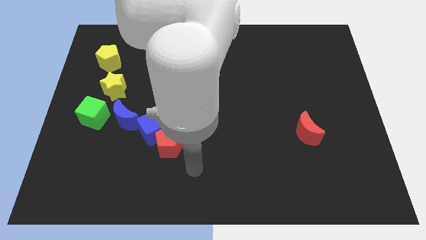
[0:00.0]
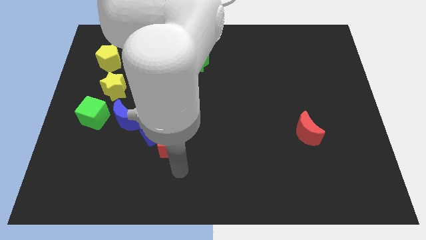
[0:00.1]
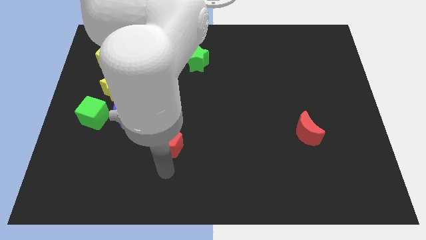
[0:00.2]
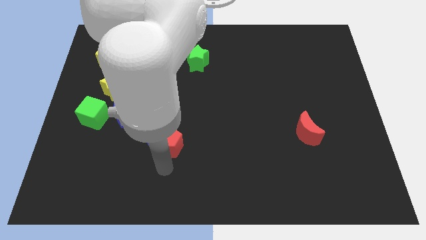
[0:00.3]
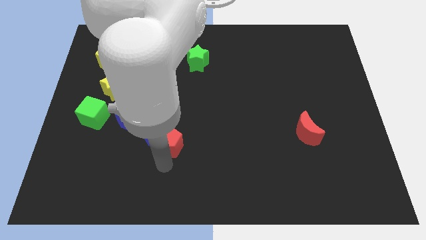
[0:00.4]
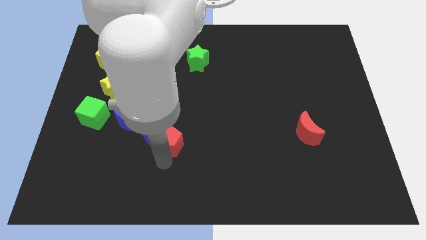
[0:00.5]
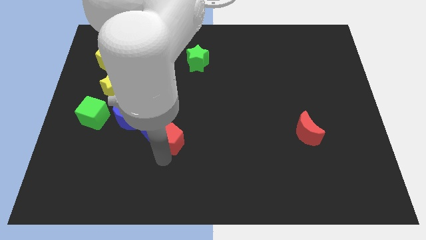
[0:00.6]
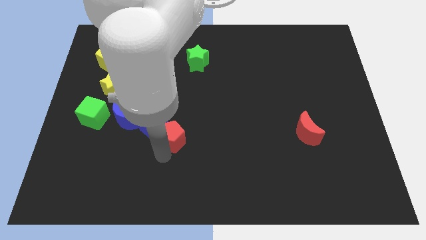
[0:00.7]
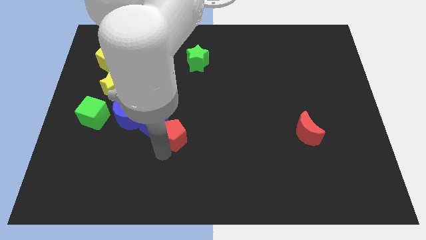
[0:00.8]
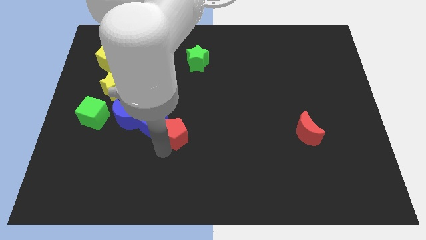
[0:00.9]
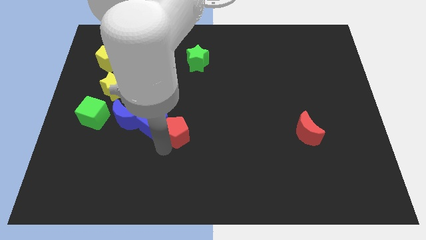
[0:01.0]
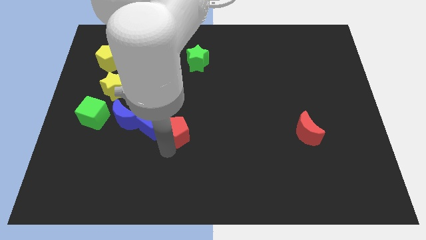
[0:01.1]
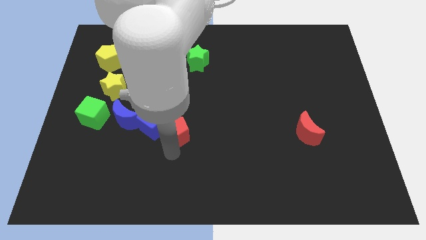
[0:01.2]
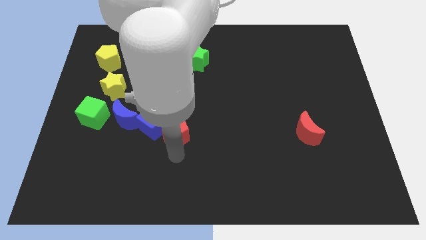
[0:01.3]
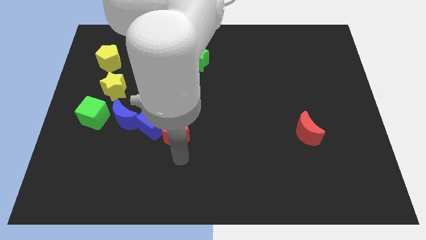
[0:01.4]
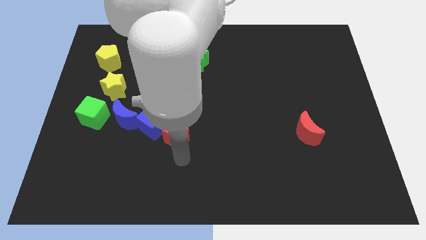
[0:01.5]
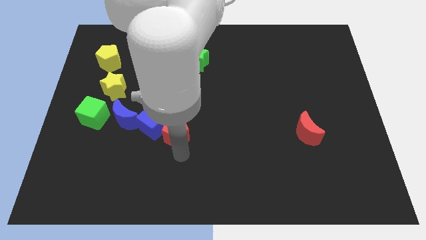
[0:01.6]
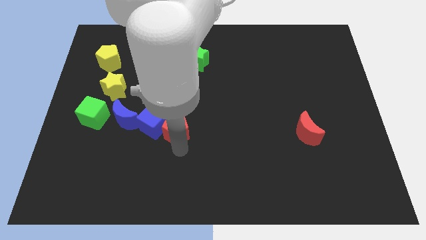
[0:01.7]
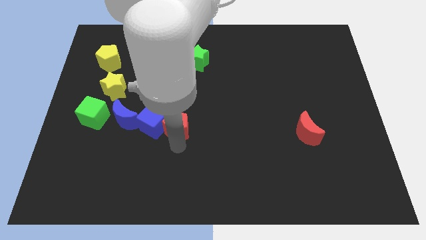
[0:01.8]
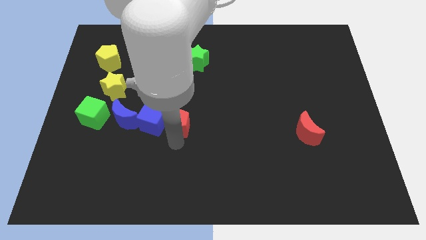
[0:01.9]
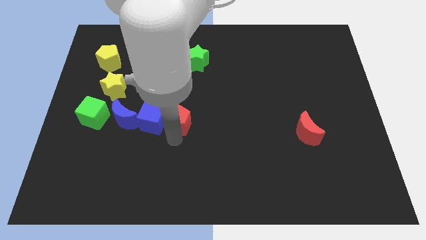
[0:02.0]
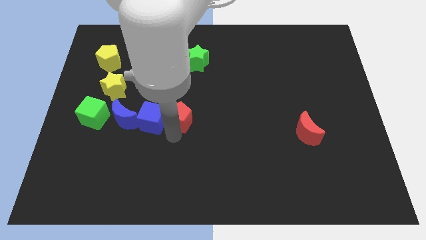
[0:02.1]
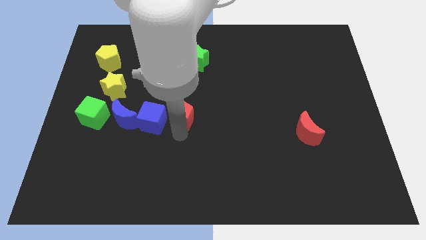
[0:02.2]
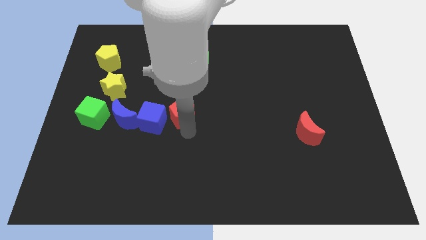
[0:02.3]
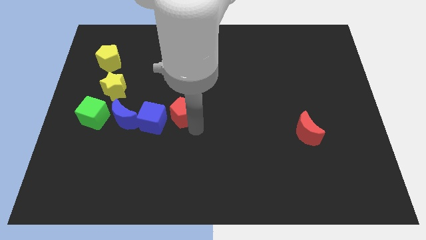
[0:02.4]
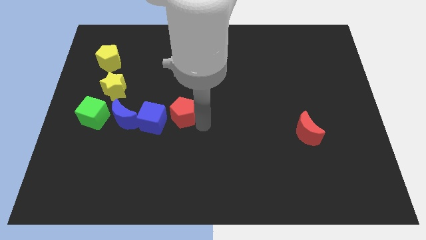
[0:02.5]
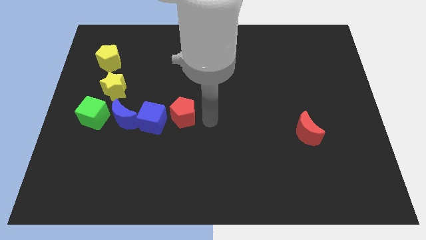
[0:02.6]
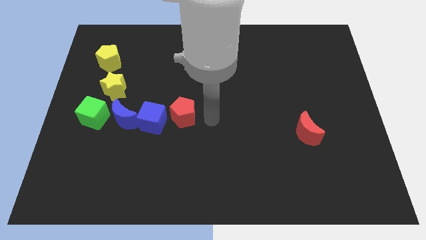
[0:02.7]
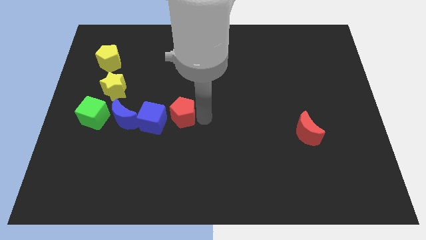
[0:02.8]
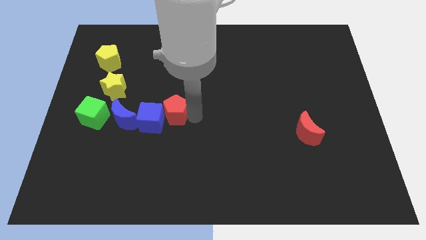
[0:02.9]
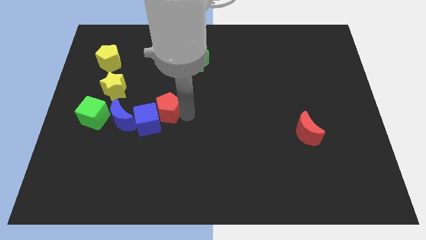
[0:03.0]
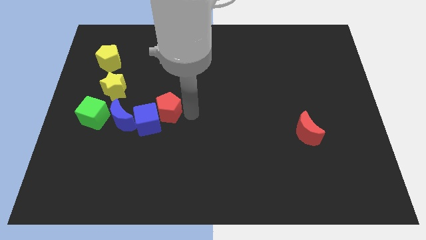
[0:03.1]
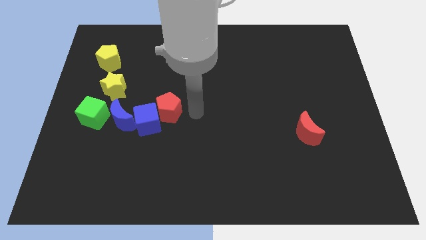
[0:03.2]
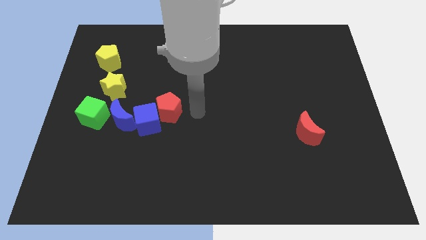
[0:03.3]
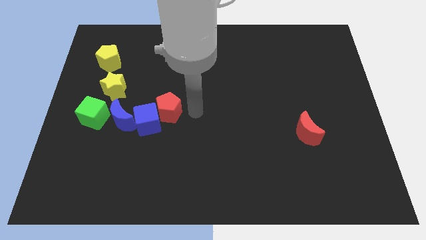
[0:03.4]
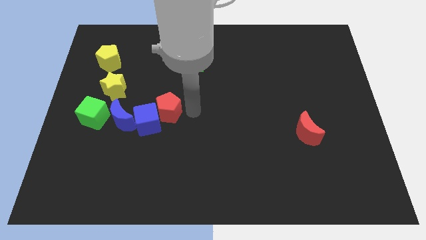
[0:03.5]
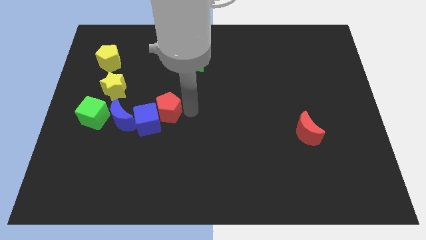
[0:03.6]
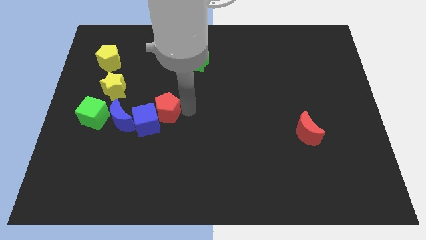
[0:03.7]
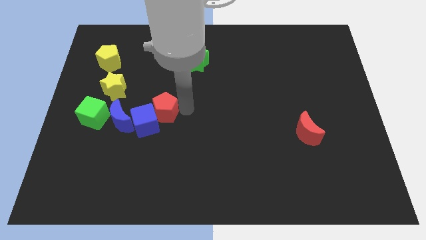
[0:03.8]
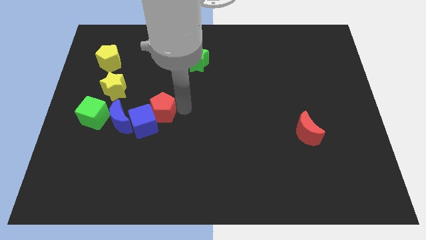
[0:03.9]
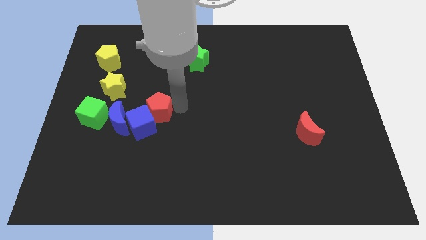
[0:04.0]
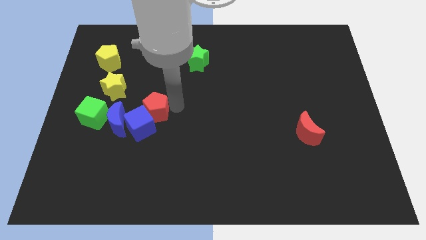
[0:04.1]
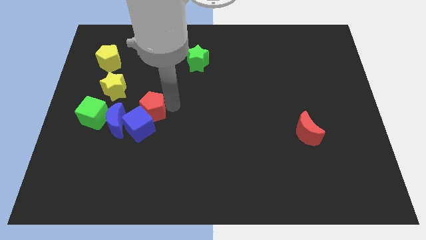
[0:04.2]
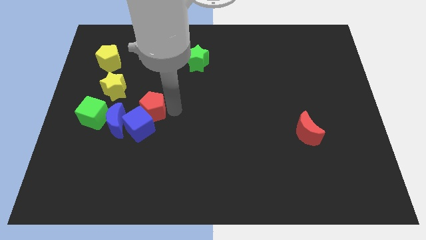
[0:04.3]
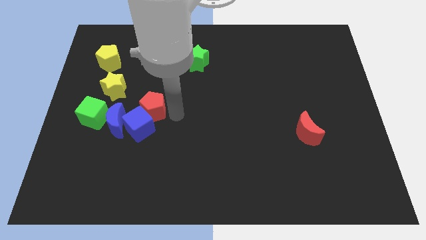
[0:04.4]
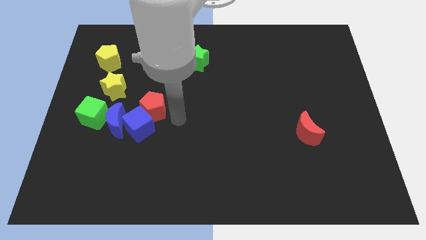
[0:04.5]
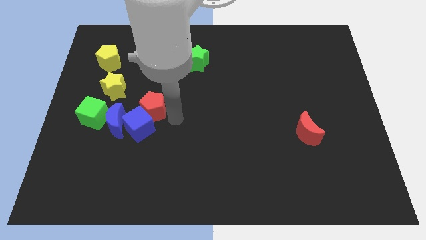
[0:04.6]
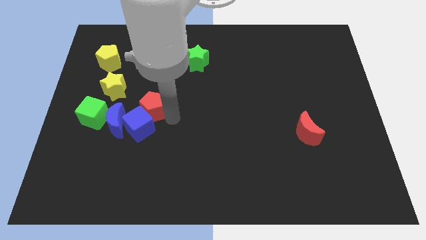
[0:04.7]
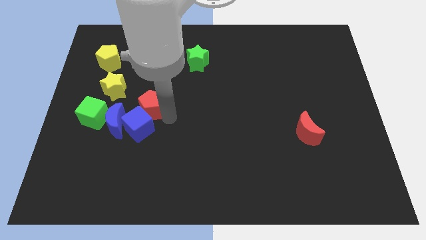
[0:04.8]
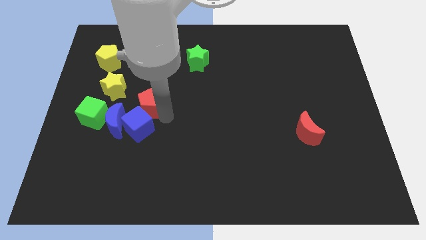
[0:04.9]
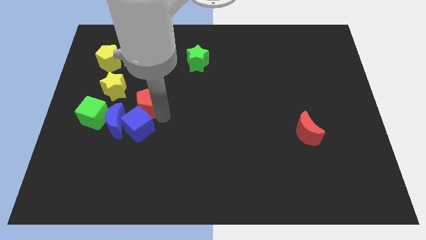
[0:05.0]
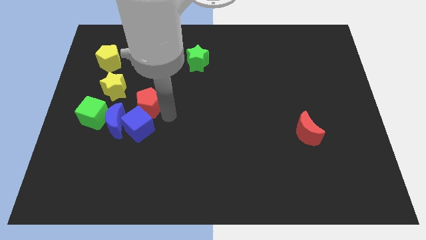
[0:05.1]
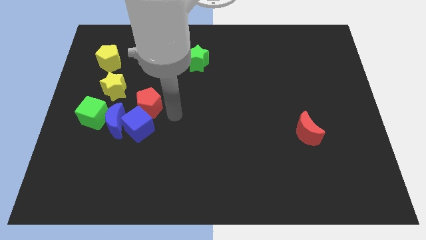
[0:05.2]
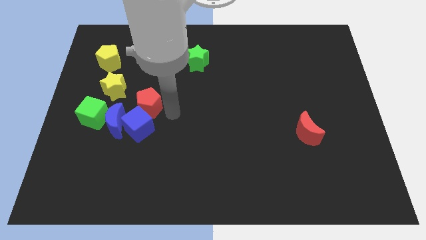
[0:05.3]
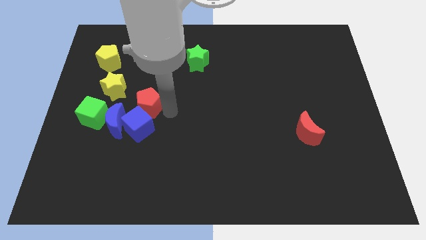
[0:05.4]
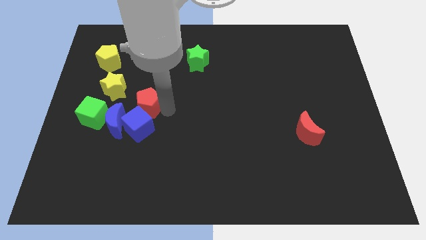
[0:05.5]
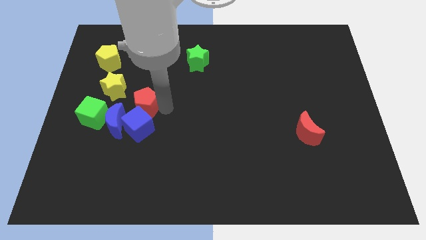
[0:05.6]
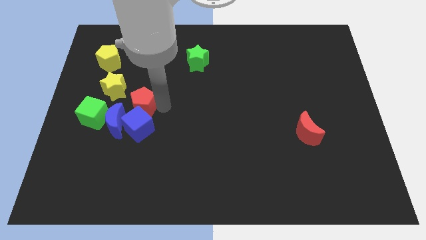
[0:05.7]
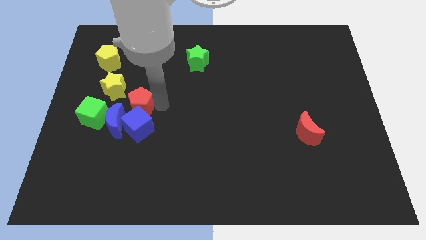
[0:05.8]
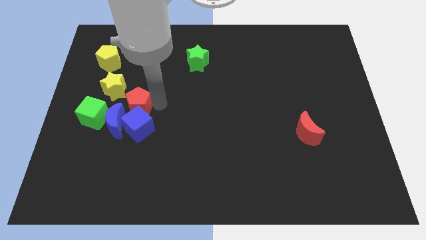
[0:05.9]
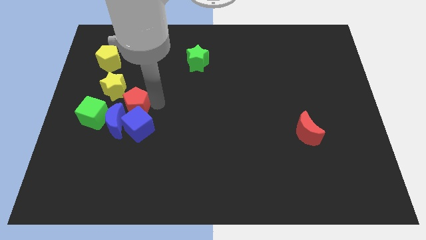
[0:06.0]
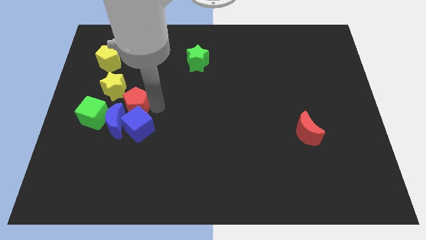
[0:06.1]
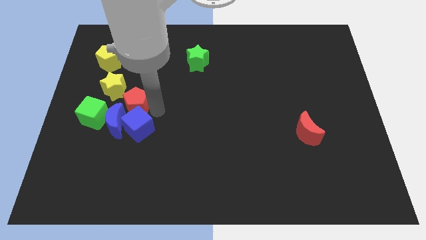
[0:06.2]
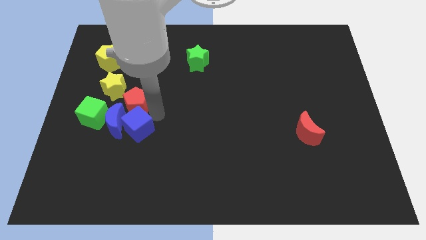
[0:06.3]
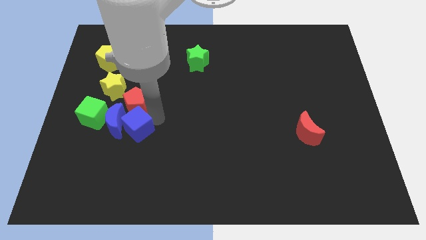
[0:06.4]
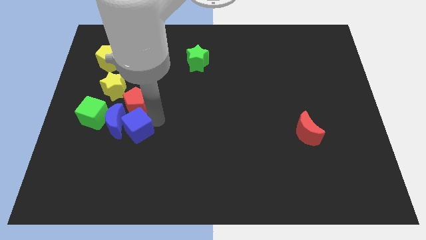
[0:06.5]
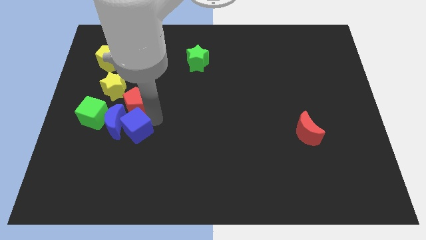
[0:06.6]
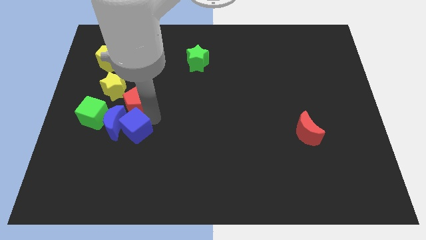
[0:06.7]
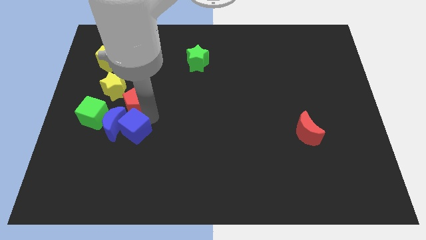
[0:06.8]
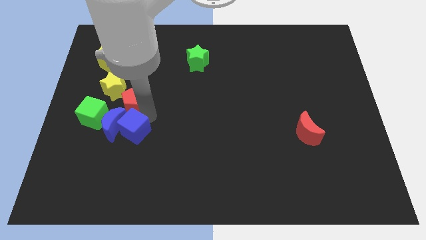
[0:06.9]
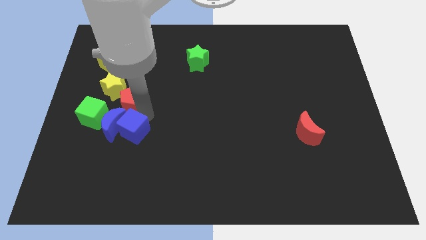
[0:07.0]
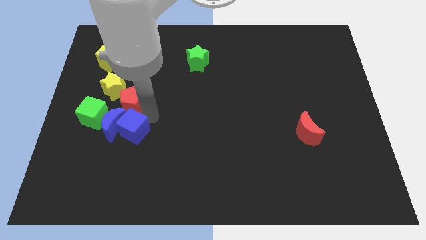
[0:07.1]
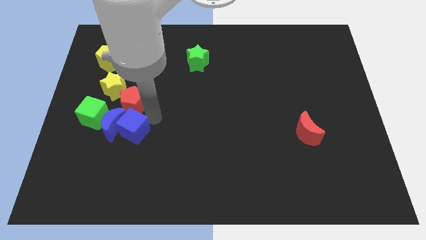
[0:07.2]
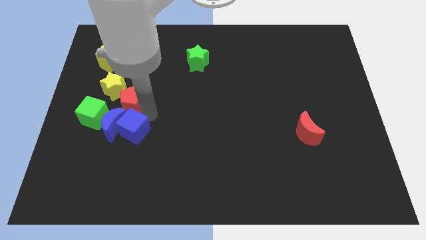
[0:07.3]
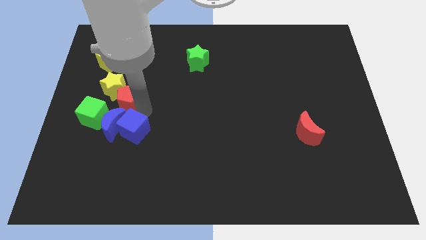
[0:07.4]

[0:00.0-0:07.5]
move the red pentagon to the yellow star
